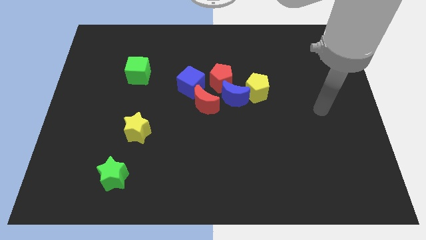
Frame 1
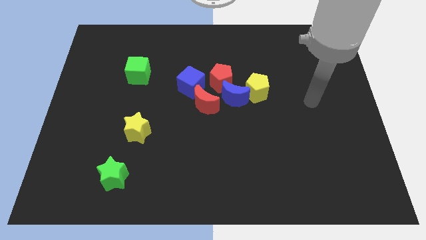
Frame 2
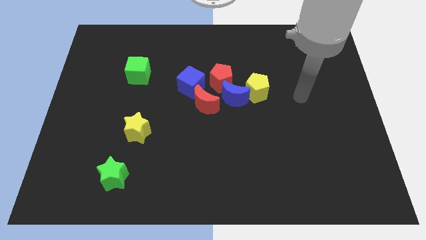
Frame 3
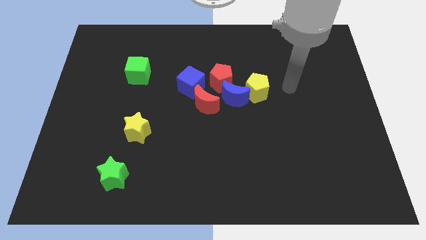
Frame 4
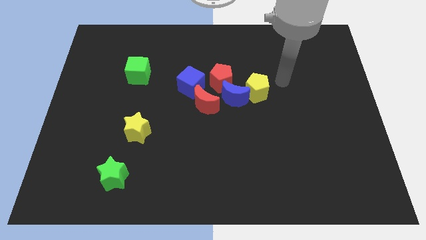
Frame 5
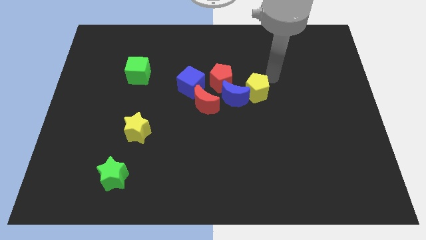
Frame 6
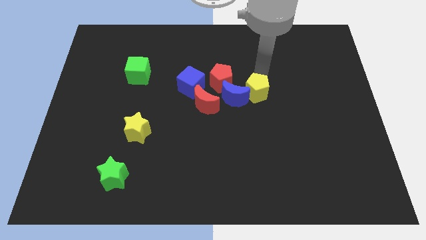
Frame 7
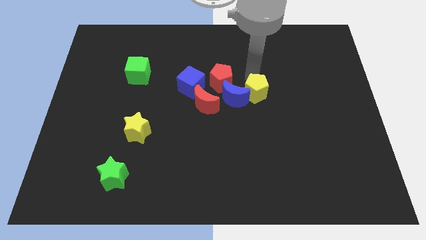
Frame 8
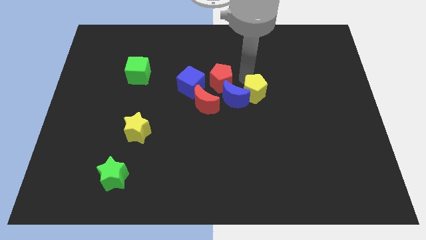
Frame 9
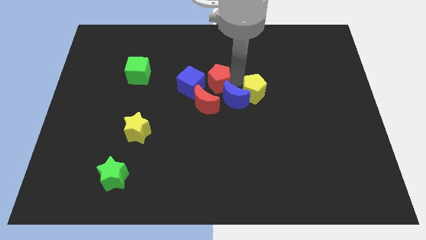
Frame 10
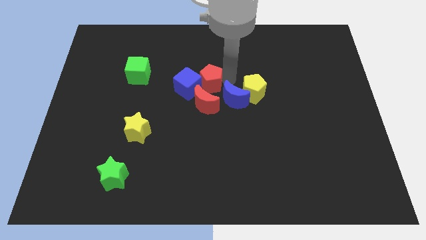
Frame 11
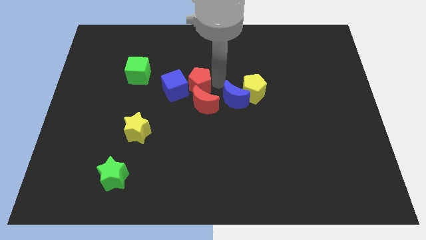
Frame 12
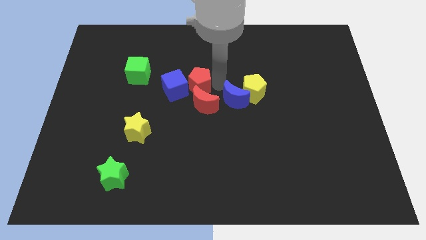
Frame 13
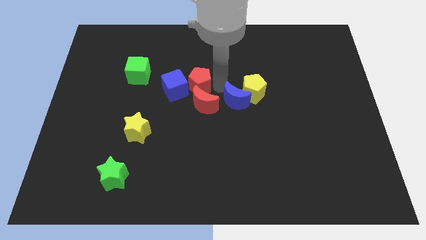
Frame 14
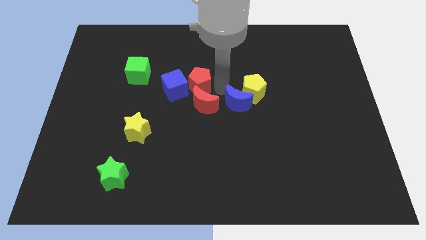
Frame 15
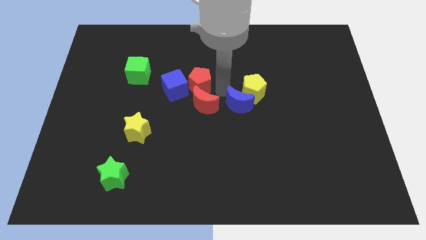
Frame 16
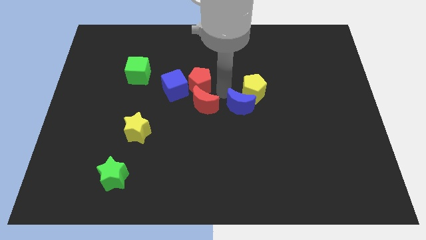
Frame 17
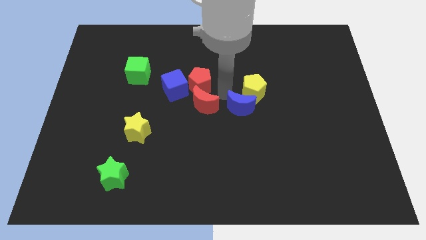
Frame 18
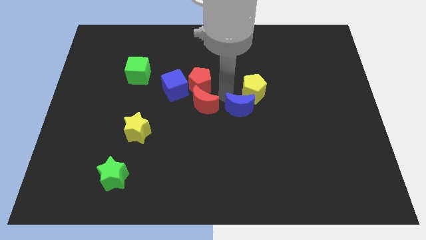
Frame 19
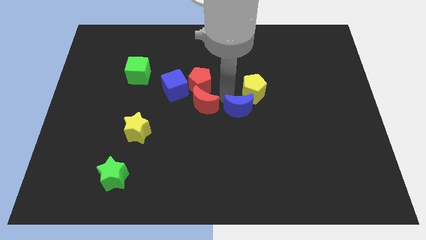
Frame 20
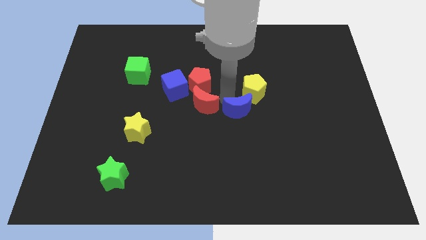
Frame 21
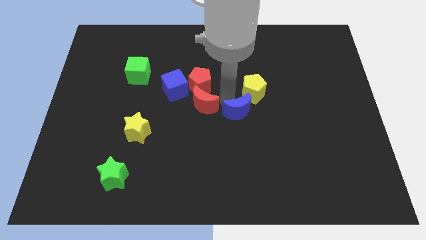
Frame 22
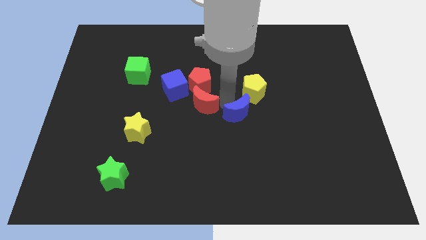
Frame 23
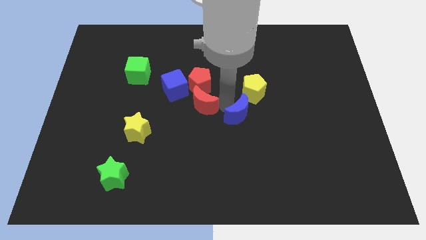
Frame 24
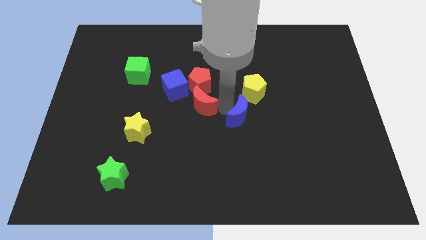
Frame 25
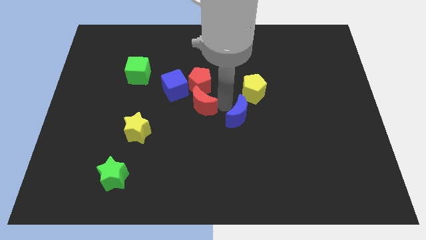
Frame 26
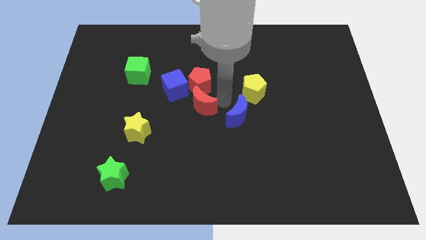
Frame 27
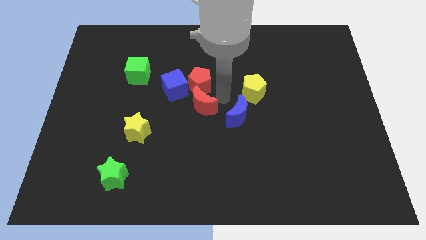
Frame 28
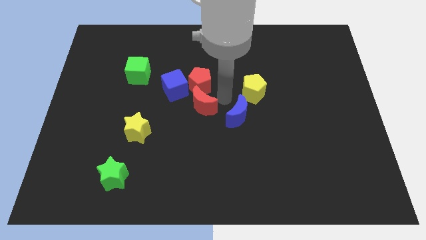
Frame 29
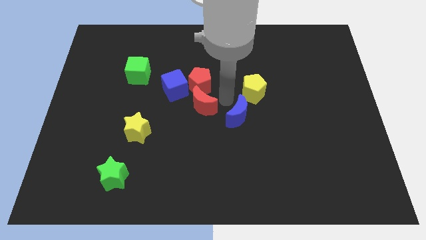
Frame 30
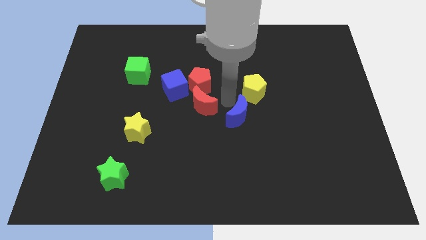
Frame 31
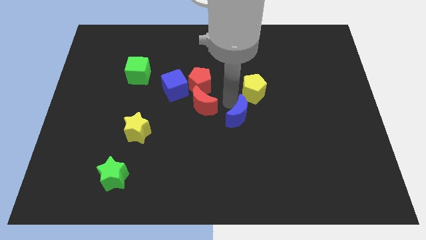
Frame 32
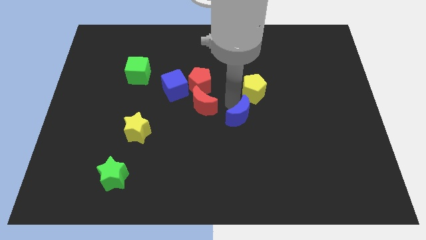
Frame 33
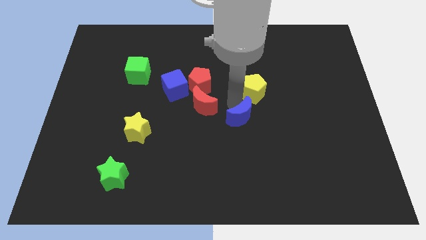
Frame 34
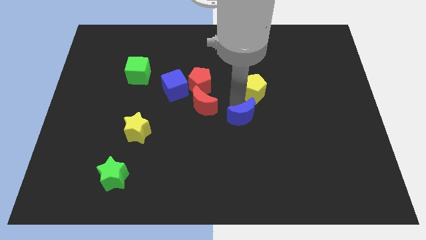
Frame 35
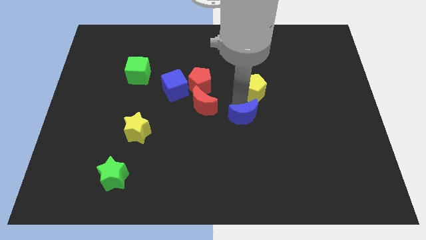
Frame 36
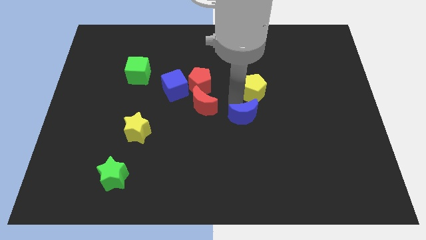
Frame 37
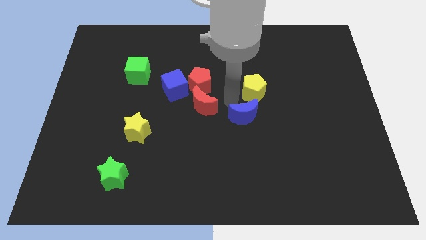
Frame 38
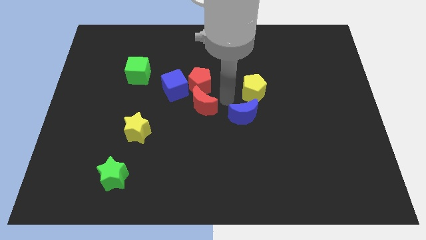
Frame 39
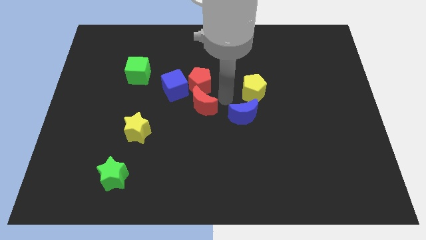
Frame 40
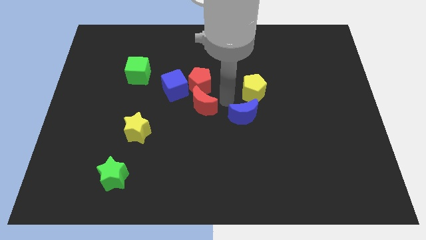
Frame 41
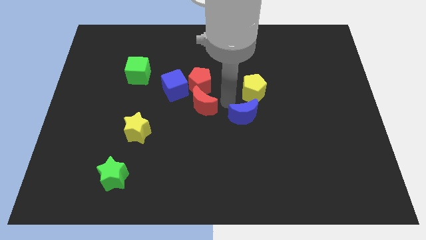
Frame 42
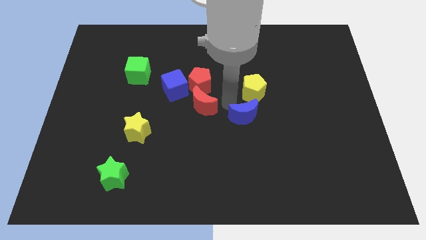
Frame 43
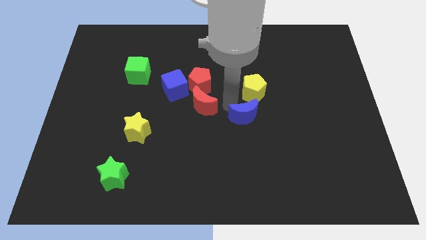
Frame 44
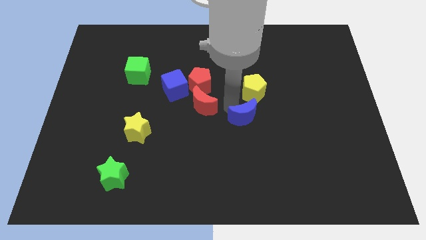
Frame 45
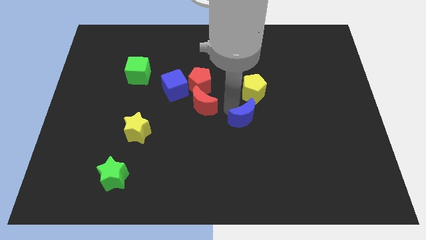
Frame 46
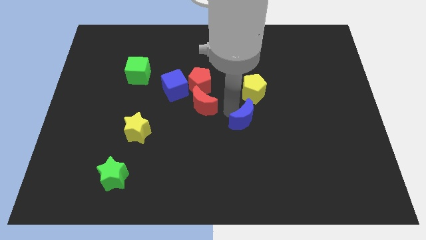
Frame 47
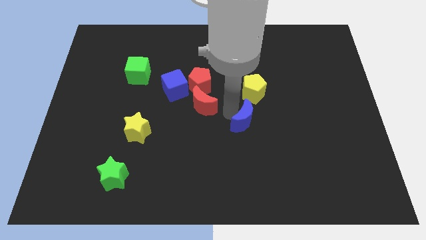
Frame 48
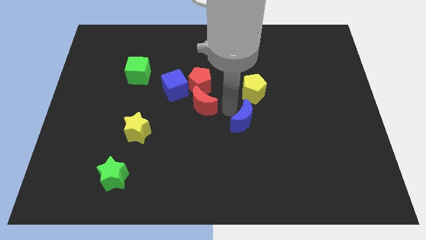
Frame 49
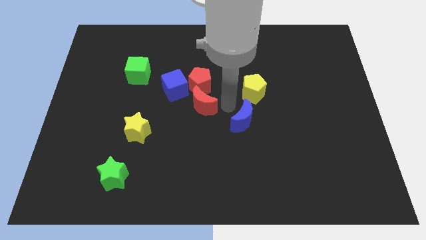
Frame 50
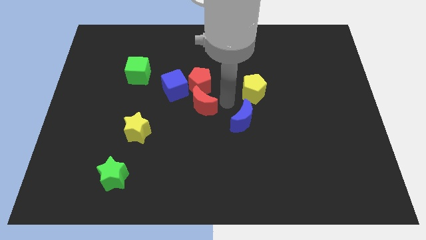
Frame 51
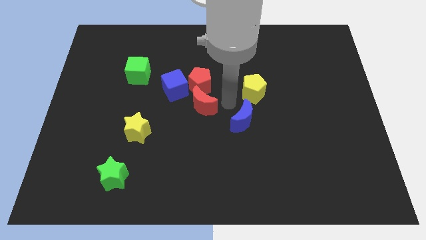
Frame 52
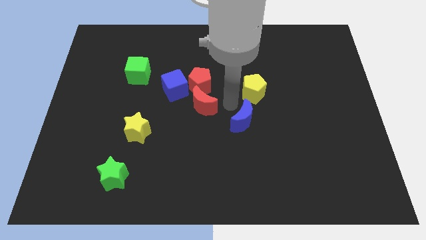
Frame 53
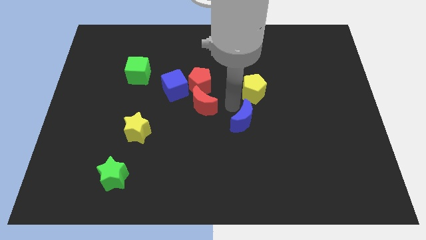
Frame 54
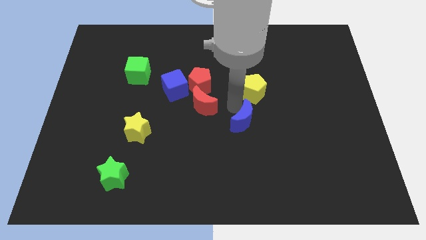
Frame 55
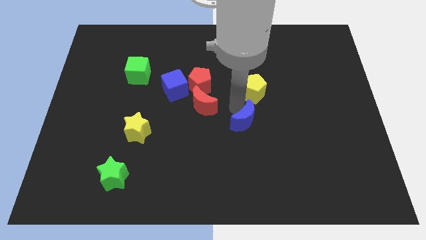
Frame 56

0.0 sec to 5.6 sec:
separate the blue moon from the red pentagon, yellow pentagon, and red moon

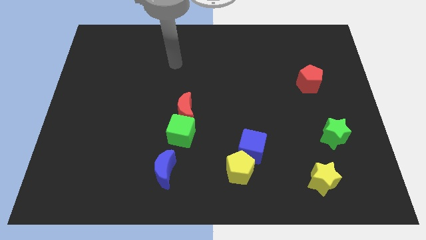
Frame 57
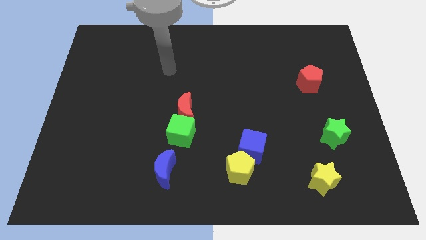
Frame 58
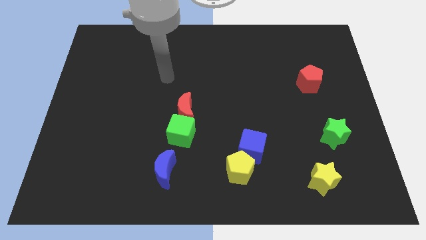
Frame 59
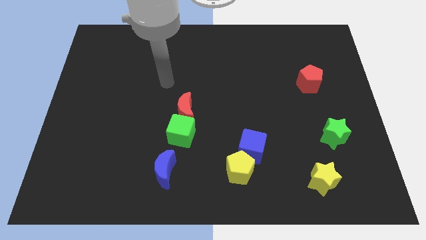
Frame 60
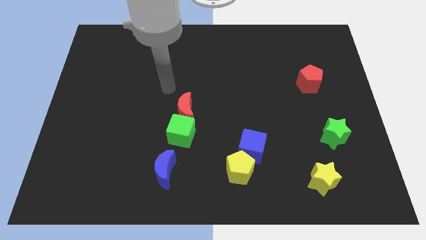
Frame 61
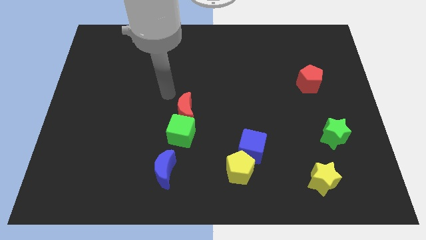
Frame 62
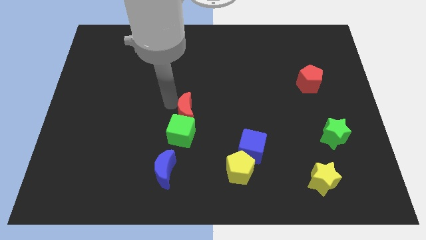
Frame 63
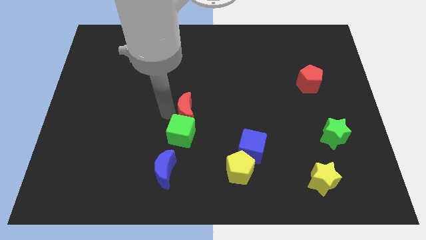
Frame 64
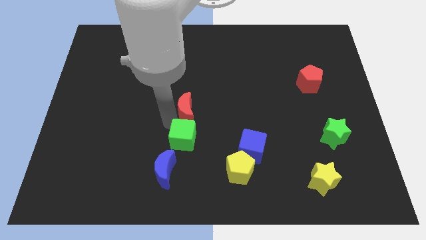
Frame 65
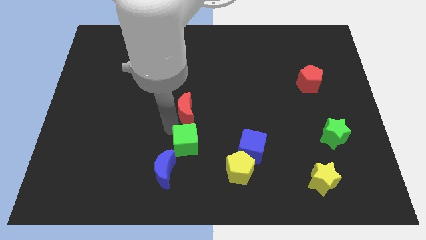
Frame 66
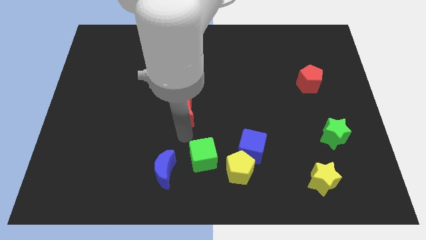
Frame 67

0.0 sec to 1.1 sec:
move the red moon away from the green cube

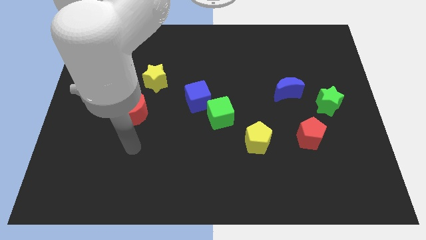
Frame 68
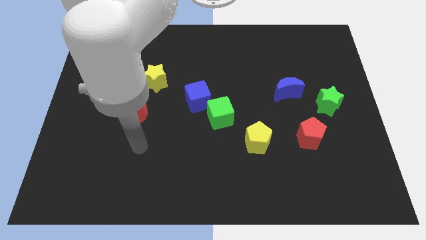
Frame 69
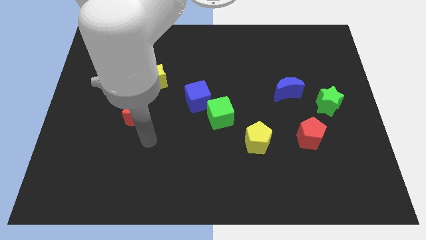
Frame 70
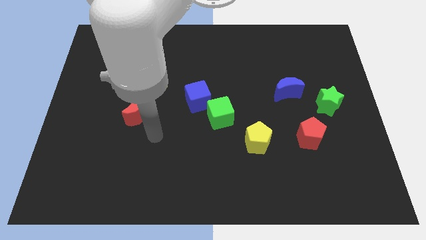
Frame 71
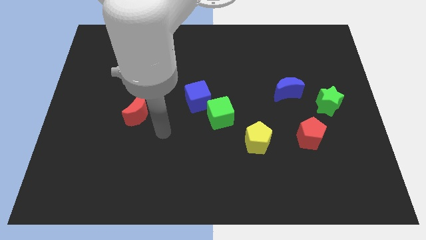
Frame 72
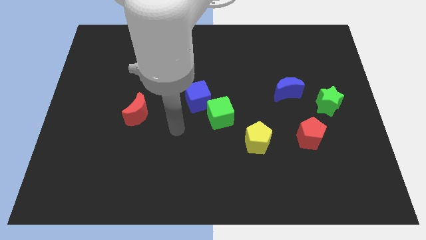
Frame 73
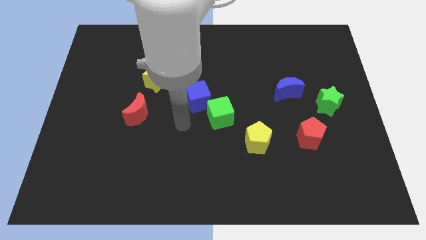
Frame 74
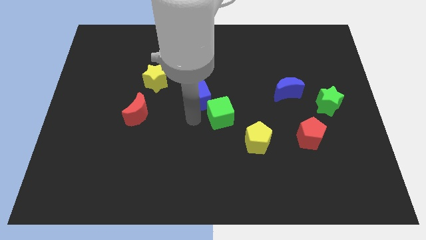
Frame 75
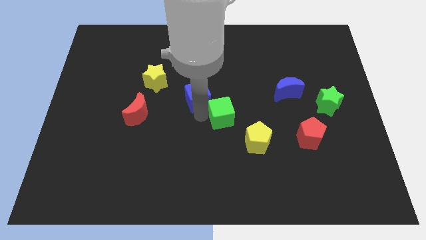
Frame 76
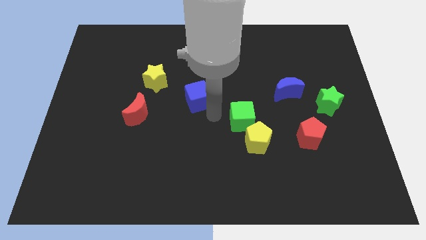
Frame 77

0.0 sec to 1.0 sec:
move the blue cube away from the green cube

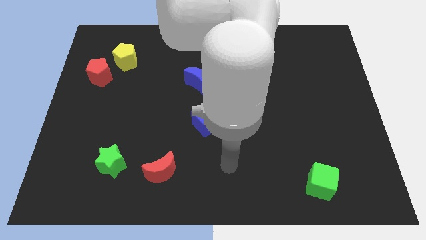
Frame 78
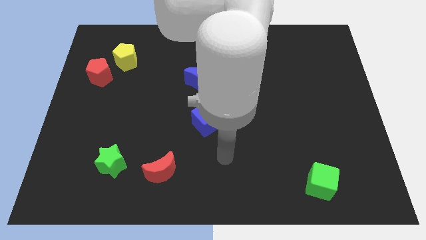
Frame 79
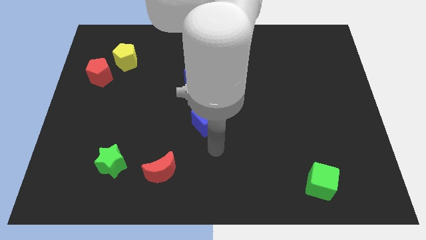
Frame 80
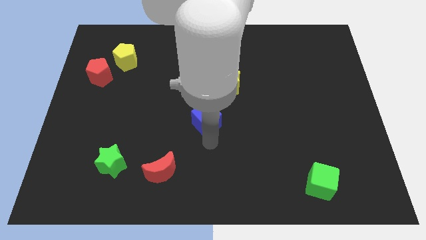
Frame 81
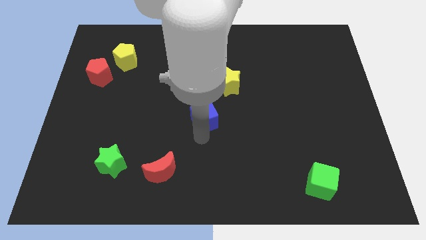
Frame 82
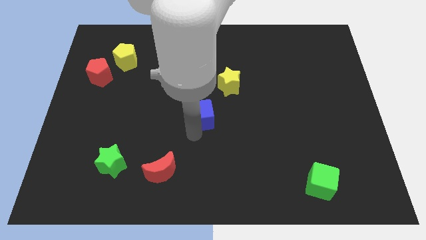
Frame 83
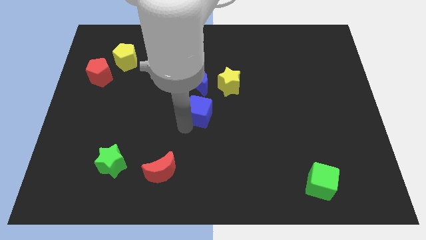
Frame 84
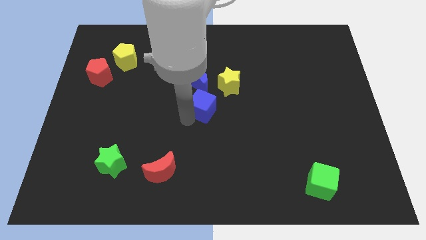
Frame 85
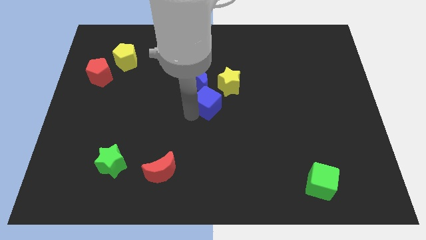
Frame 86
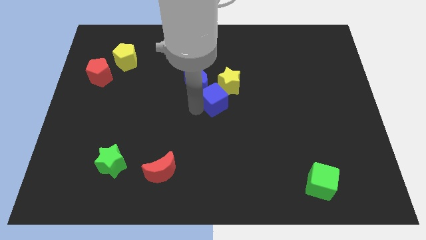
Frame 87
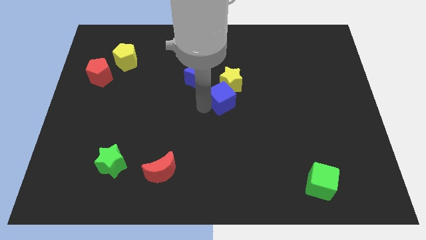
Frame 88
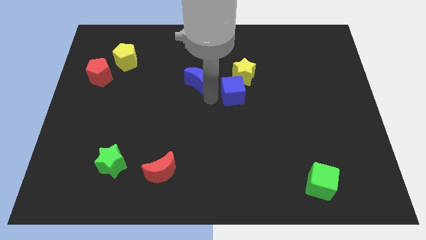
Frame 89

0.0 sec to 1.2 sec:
move the blue moon away from the yellow star

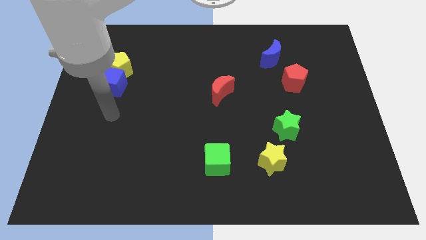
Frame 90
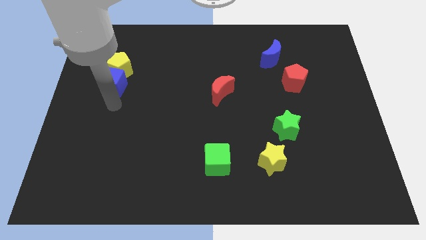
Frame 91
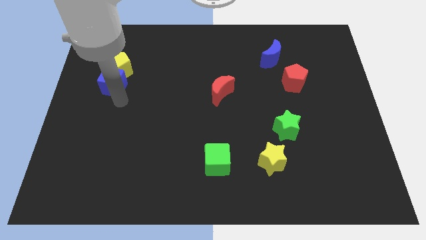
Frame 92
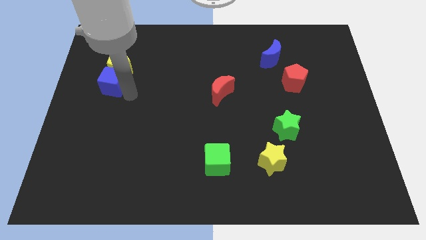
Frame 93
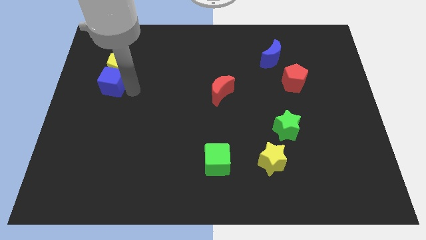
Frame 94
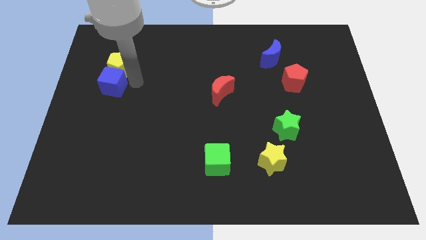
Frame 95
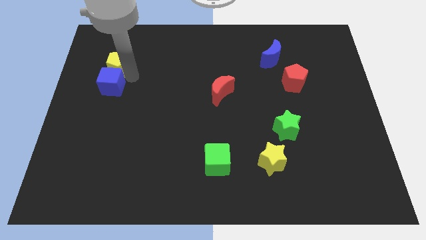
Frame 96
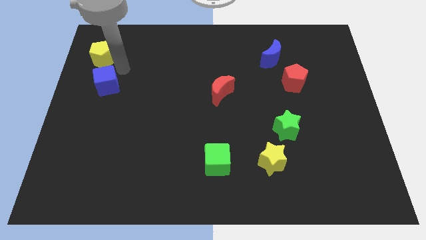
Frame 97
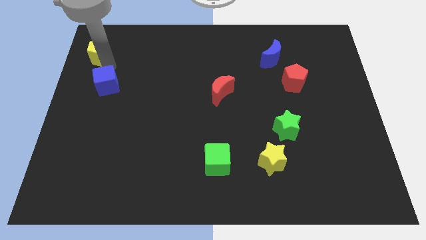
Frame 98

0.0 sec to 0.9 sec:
pull the blue cube apart from the yellow pentagon
